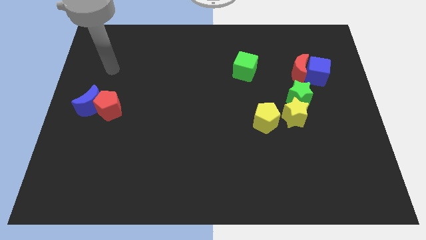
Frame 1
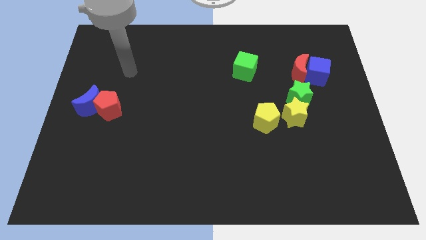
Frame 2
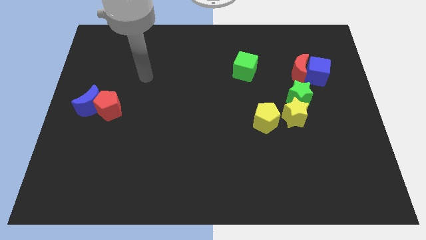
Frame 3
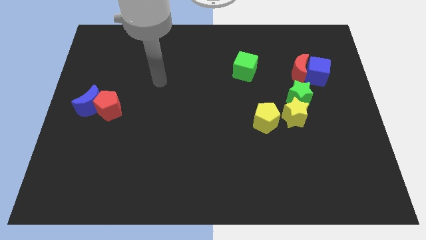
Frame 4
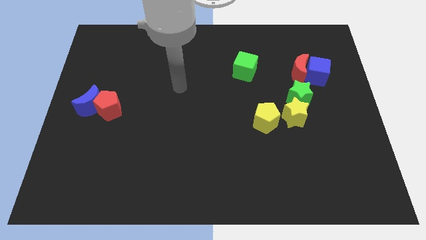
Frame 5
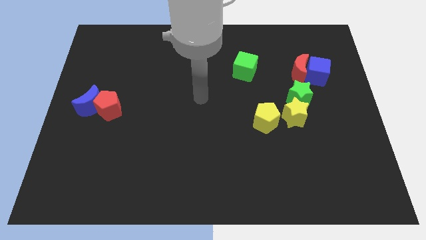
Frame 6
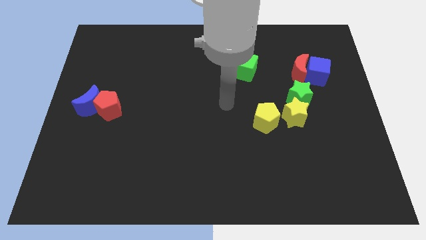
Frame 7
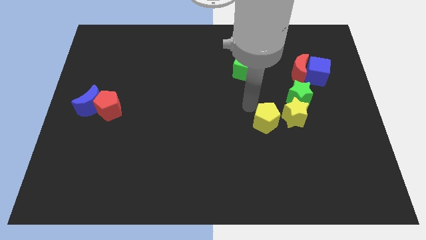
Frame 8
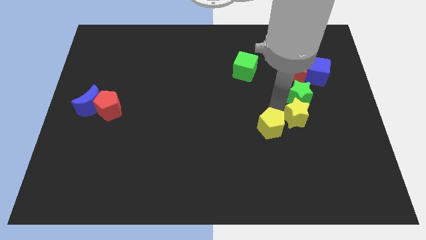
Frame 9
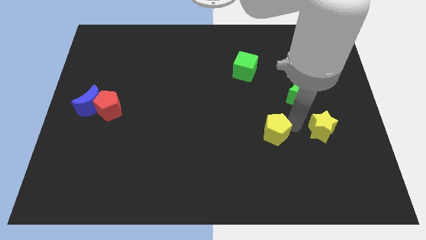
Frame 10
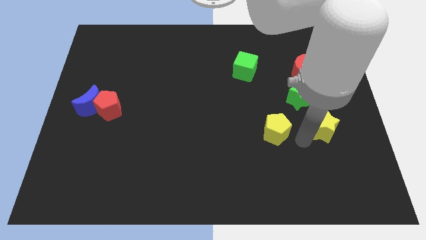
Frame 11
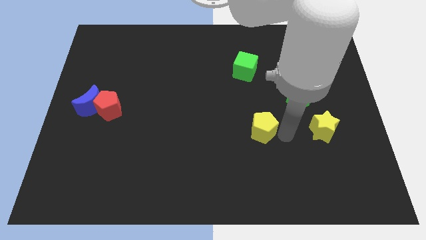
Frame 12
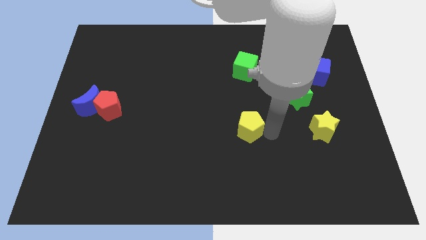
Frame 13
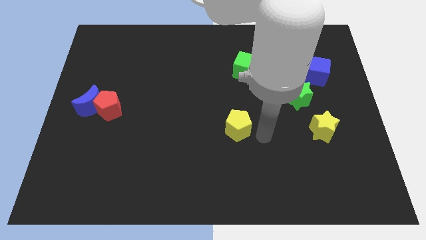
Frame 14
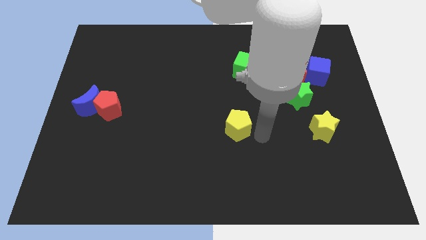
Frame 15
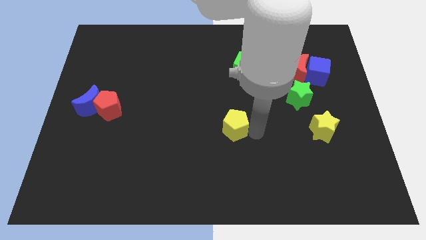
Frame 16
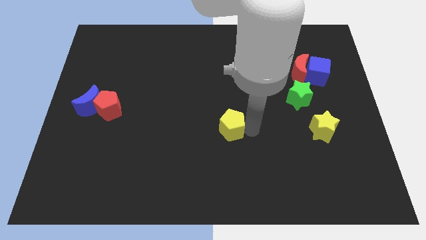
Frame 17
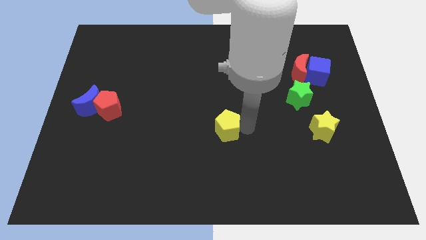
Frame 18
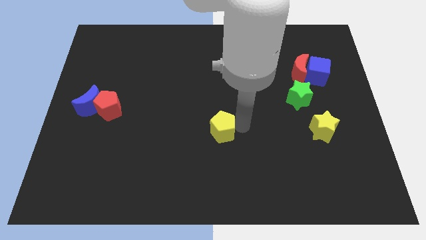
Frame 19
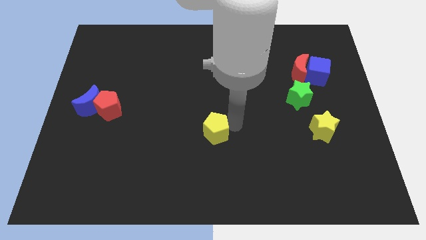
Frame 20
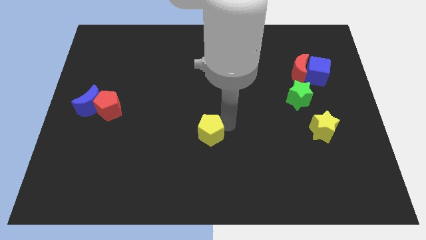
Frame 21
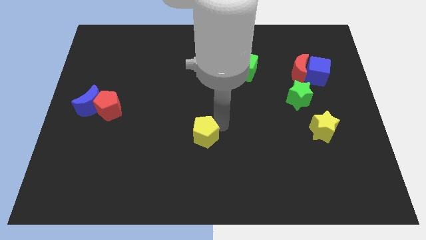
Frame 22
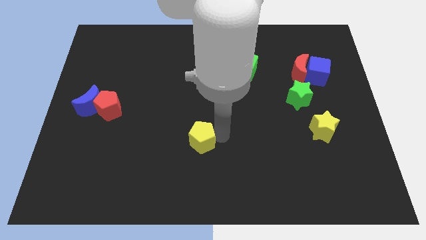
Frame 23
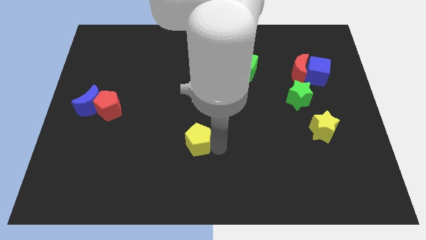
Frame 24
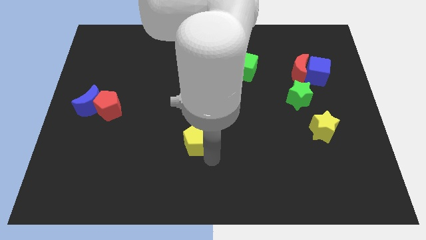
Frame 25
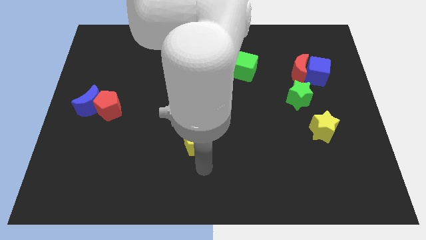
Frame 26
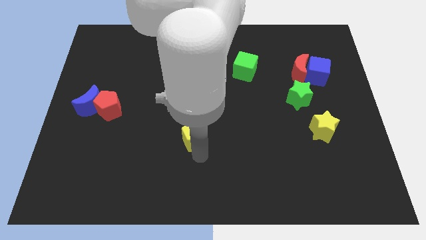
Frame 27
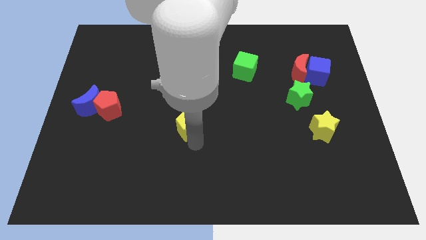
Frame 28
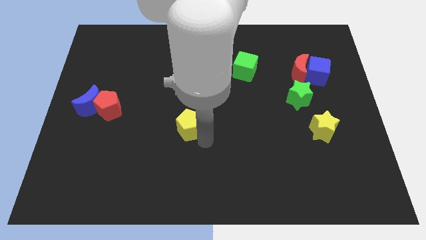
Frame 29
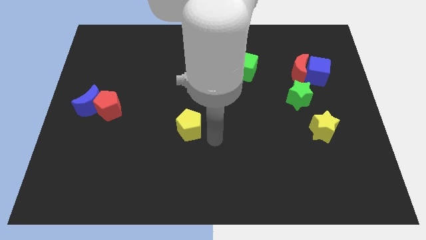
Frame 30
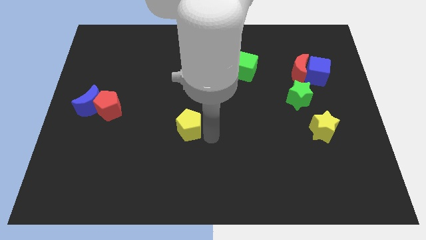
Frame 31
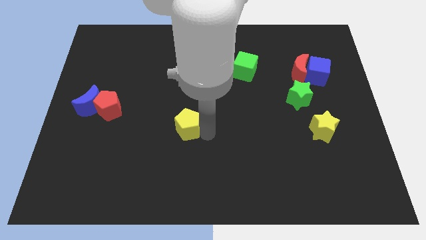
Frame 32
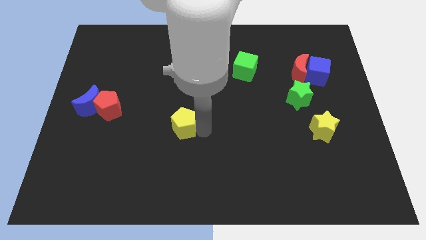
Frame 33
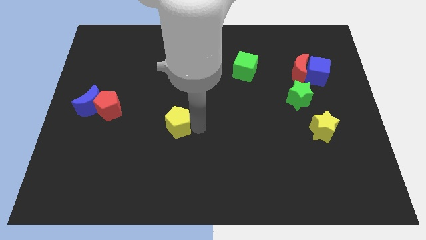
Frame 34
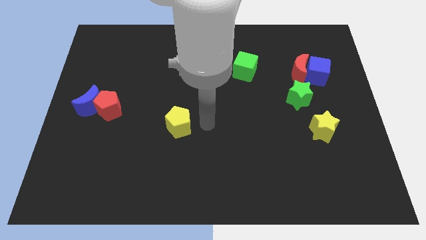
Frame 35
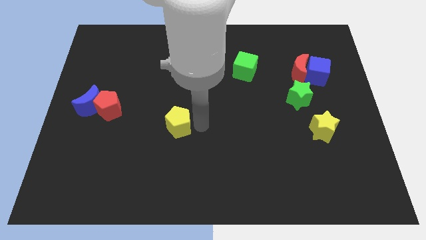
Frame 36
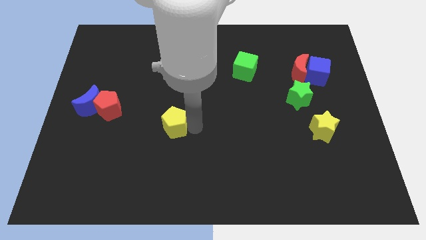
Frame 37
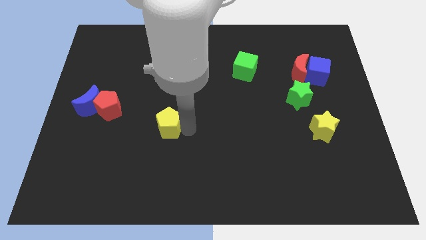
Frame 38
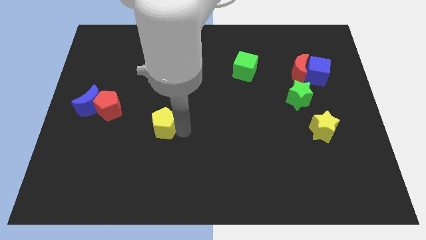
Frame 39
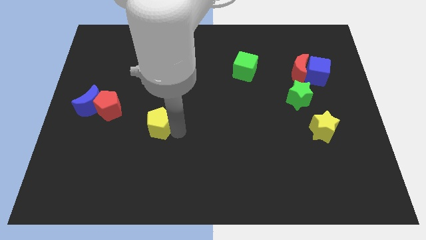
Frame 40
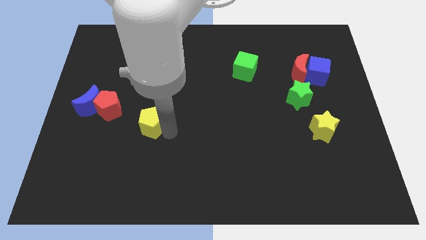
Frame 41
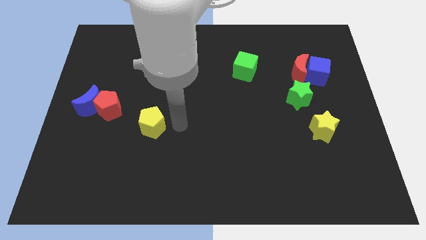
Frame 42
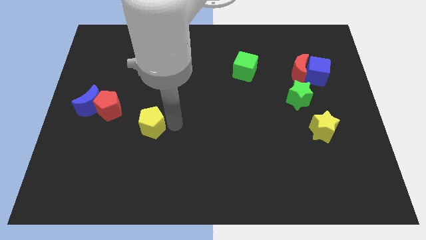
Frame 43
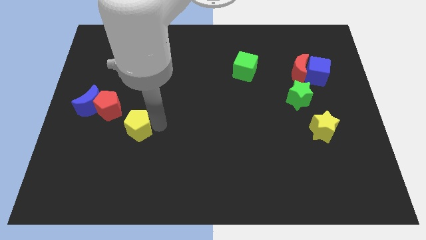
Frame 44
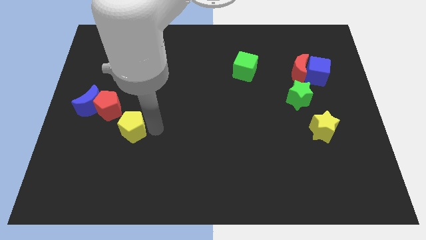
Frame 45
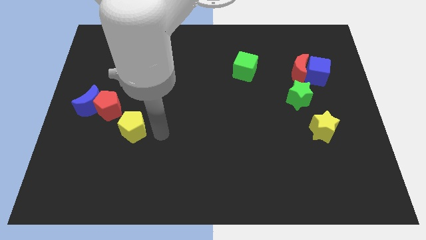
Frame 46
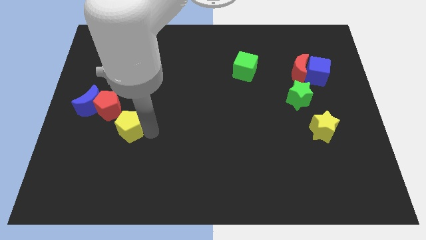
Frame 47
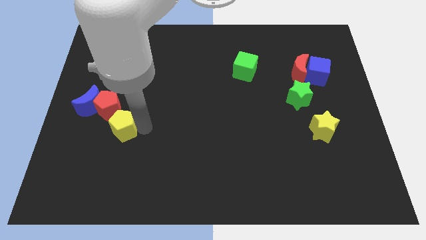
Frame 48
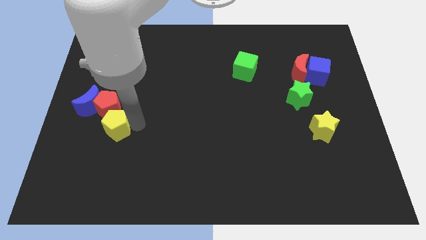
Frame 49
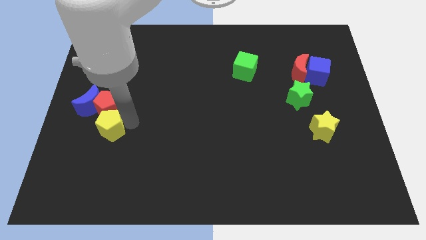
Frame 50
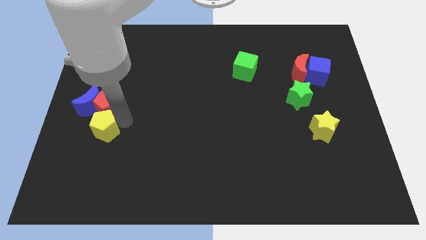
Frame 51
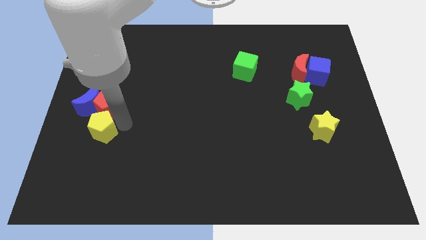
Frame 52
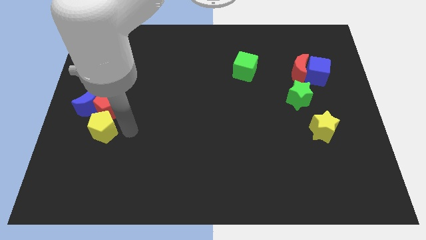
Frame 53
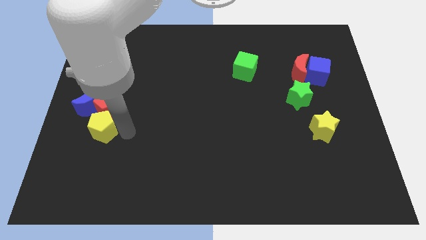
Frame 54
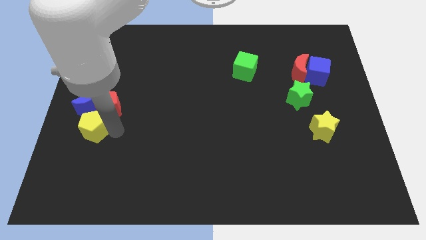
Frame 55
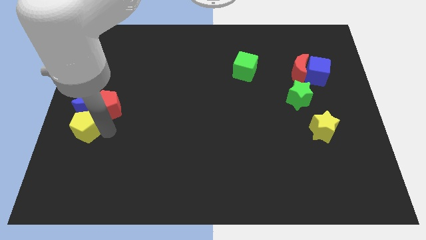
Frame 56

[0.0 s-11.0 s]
move the yellow pentagon to the left side
